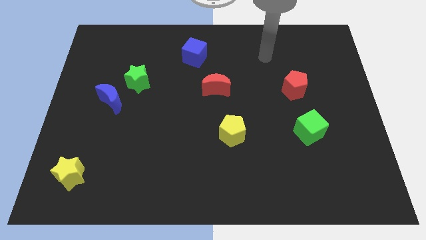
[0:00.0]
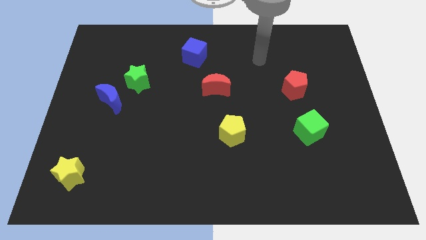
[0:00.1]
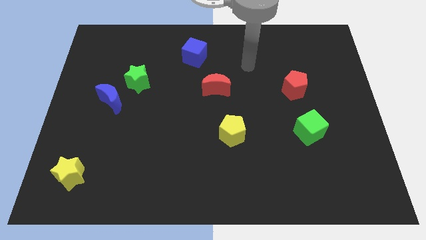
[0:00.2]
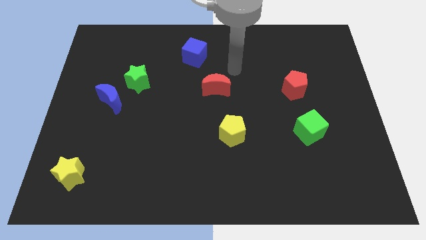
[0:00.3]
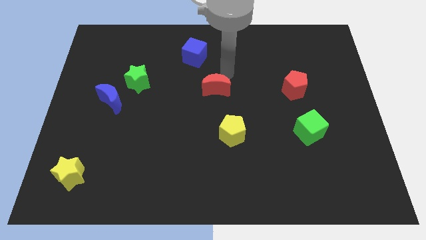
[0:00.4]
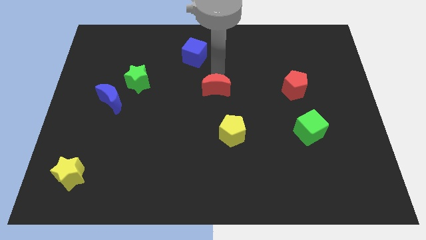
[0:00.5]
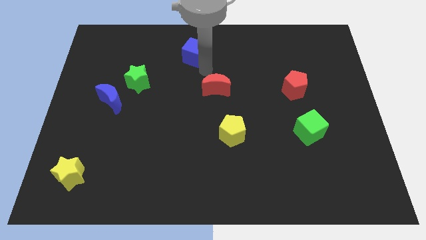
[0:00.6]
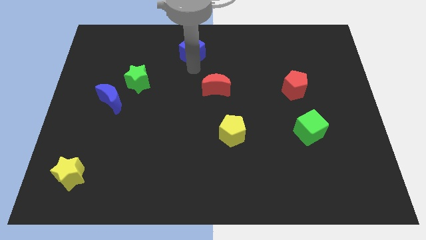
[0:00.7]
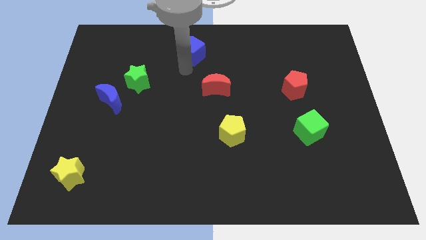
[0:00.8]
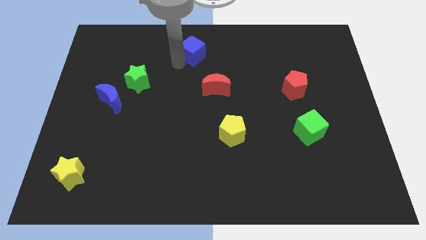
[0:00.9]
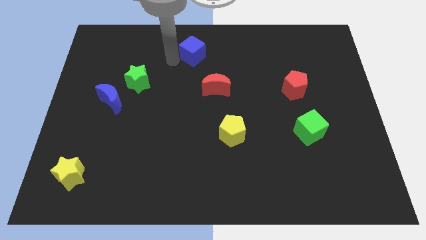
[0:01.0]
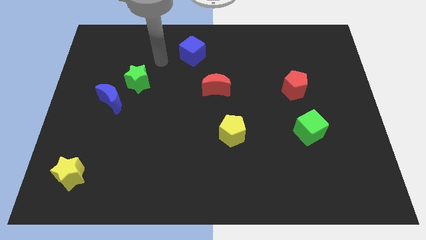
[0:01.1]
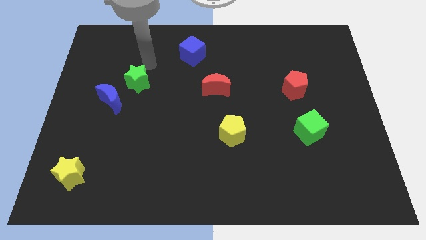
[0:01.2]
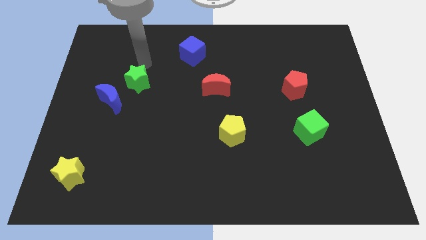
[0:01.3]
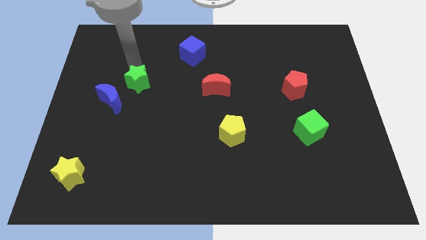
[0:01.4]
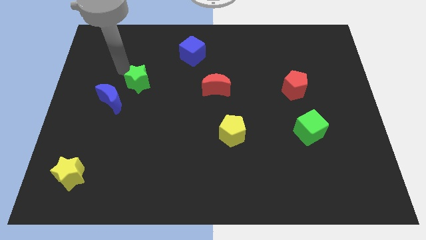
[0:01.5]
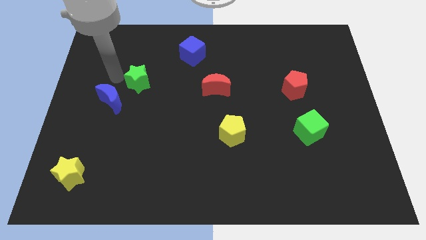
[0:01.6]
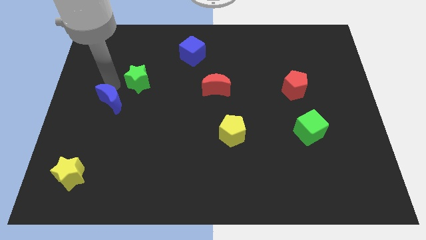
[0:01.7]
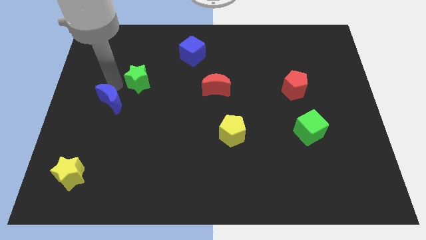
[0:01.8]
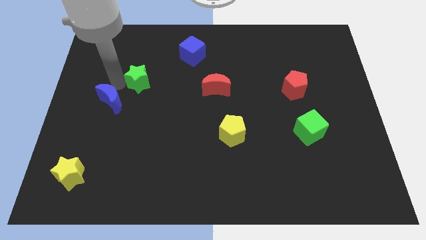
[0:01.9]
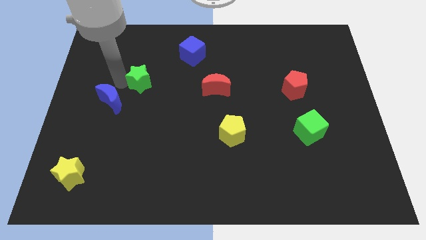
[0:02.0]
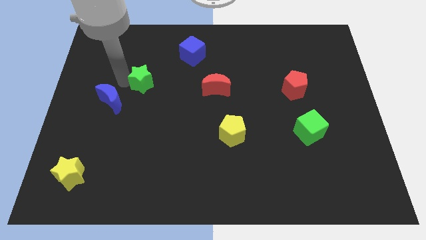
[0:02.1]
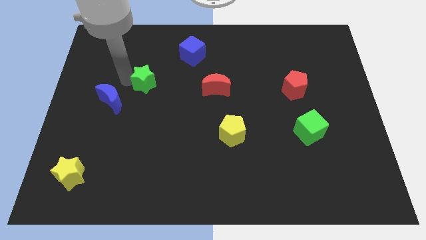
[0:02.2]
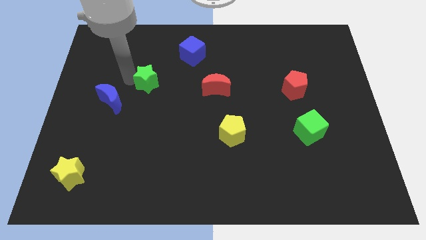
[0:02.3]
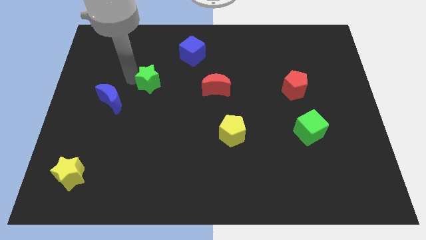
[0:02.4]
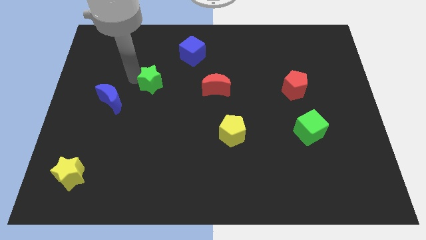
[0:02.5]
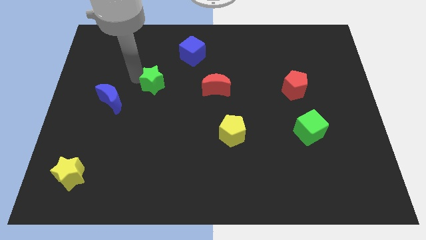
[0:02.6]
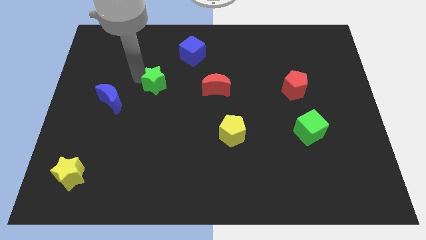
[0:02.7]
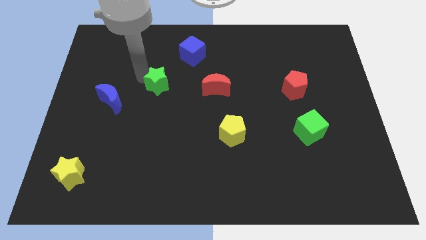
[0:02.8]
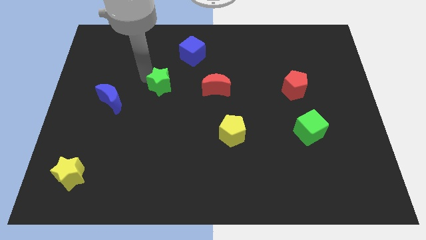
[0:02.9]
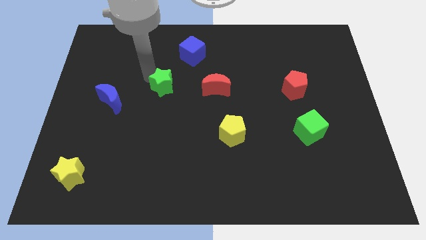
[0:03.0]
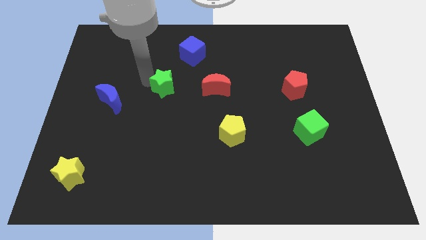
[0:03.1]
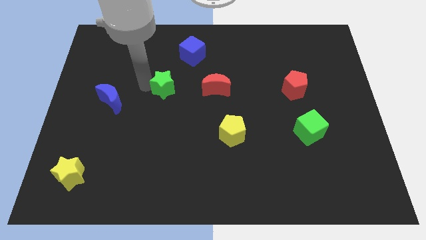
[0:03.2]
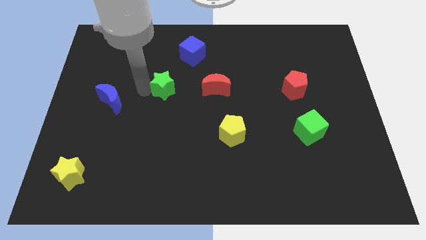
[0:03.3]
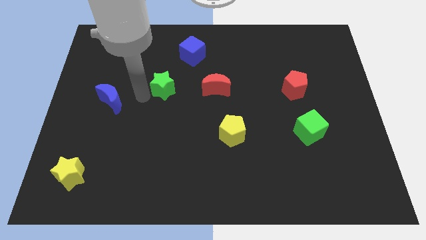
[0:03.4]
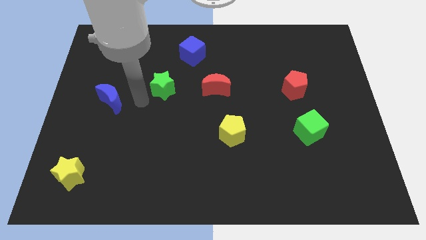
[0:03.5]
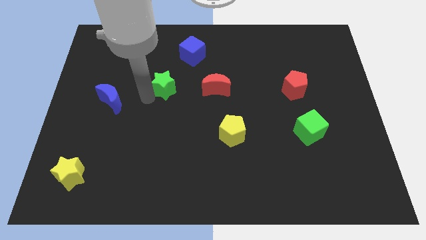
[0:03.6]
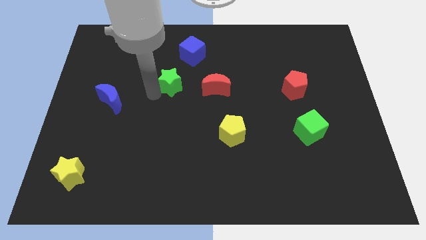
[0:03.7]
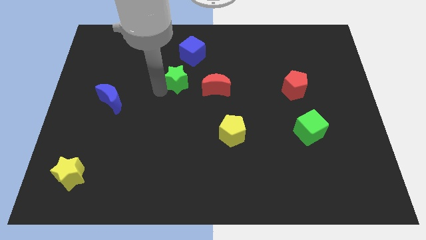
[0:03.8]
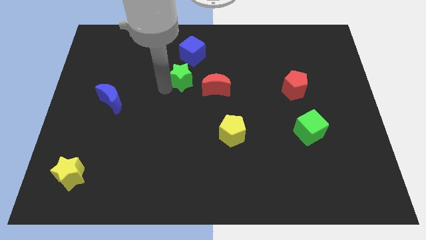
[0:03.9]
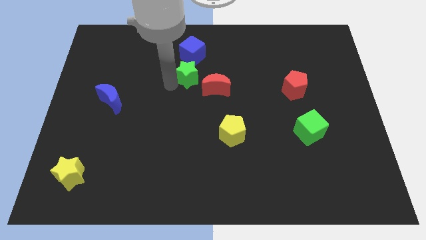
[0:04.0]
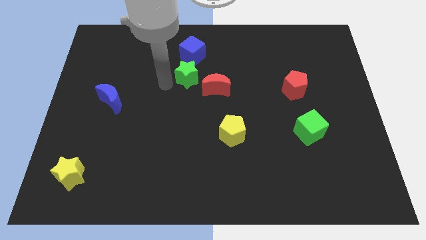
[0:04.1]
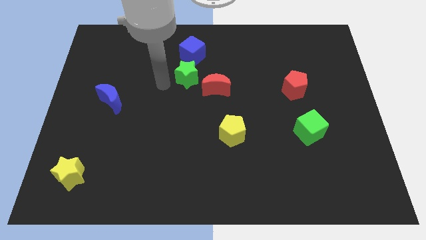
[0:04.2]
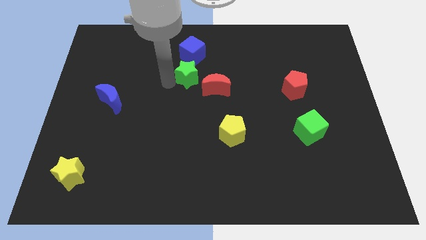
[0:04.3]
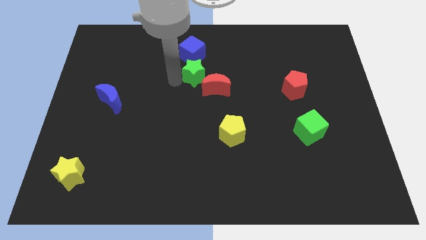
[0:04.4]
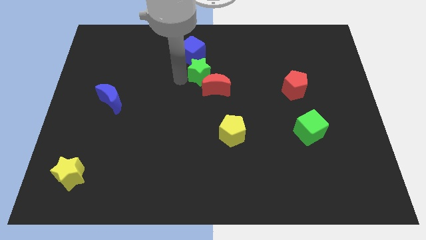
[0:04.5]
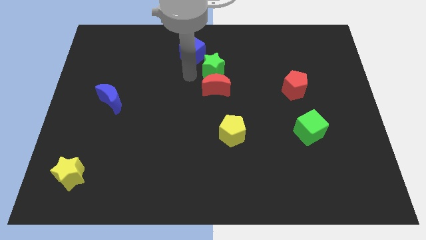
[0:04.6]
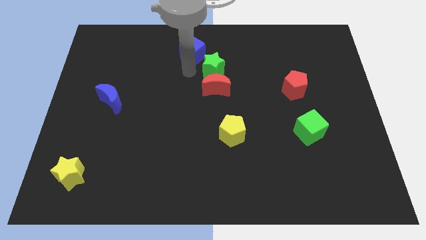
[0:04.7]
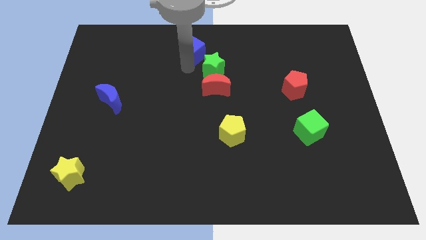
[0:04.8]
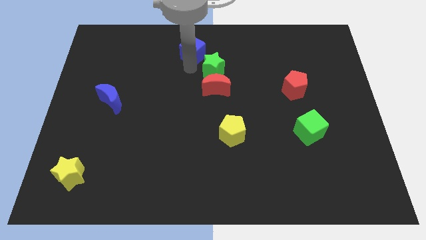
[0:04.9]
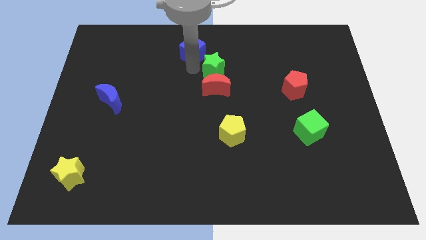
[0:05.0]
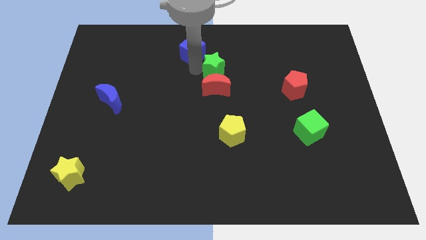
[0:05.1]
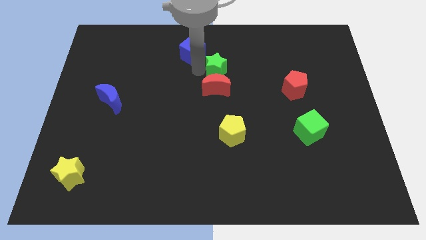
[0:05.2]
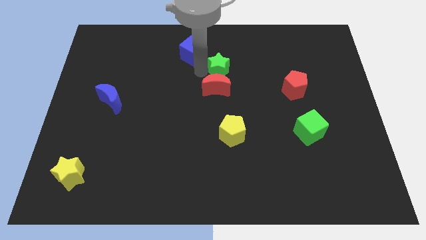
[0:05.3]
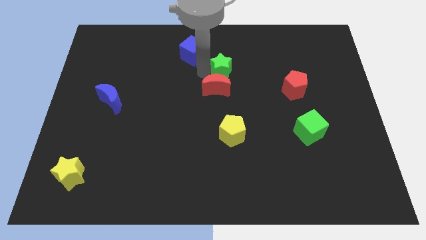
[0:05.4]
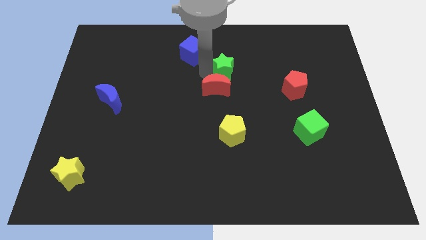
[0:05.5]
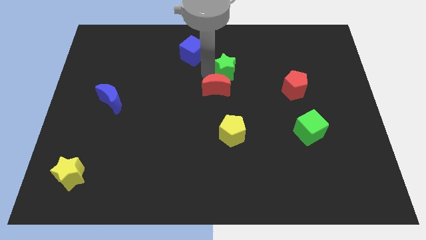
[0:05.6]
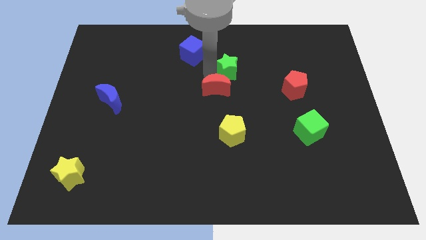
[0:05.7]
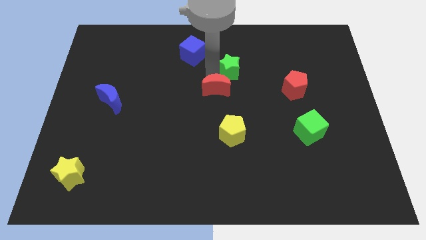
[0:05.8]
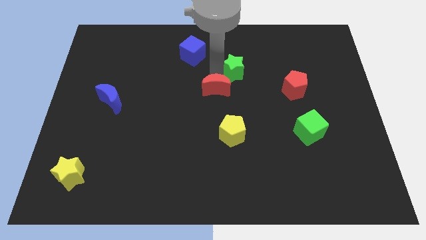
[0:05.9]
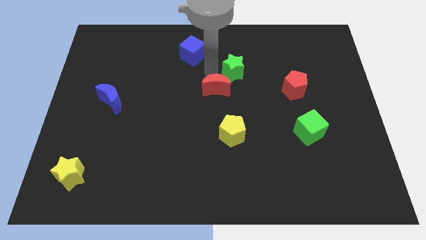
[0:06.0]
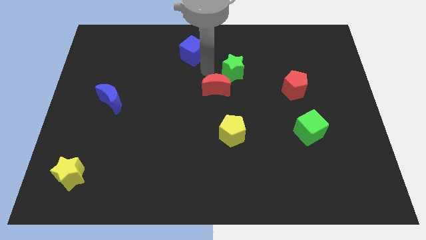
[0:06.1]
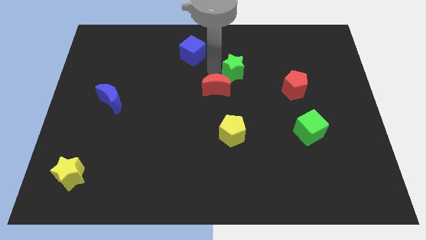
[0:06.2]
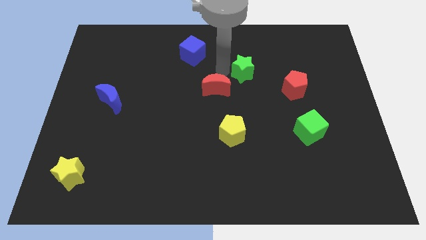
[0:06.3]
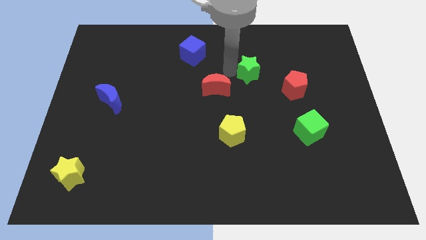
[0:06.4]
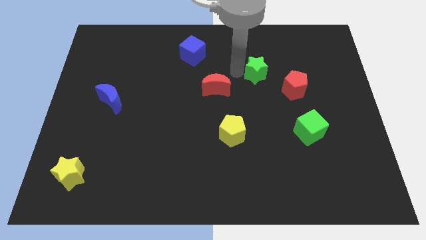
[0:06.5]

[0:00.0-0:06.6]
put the green star to the top left of the red pentagon
